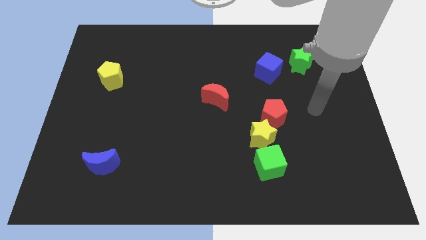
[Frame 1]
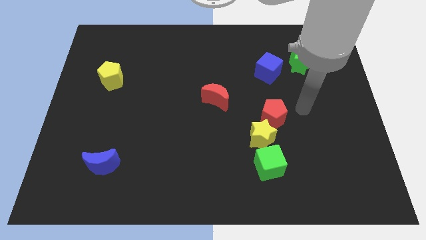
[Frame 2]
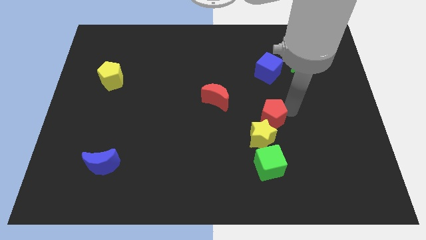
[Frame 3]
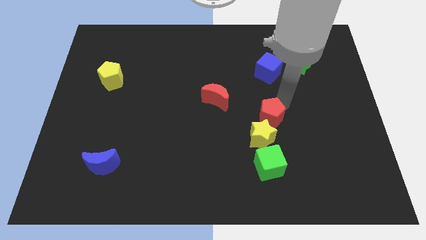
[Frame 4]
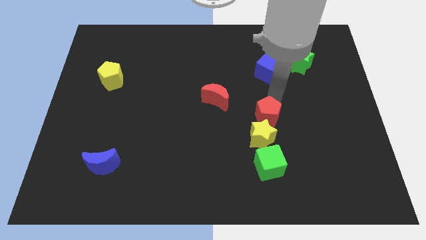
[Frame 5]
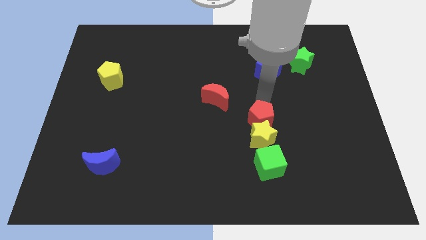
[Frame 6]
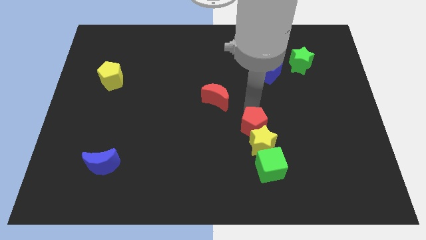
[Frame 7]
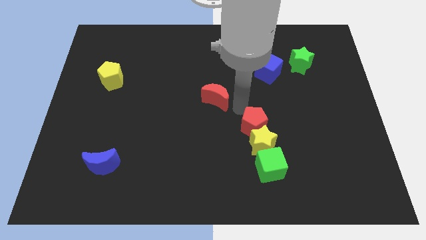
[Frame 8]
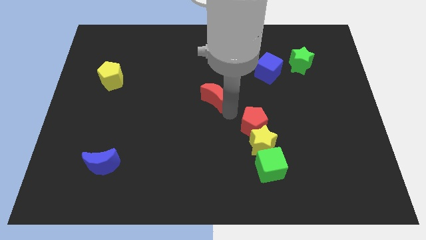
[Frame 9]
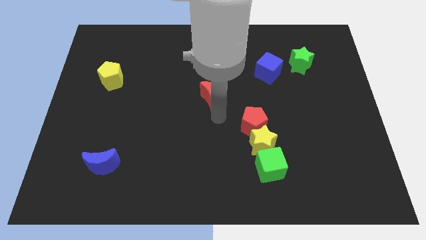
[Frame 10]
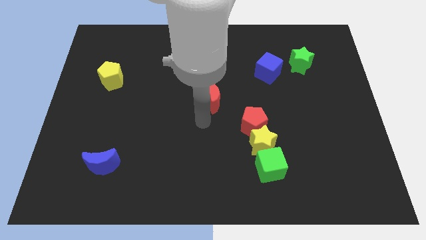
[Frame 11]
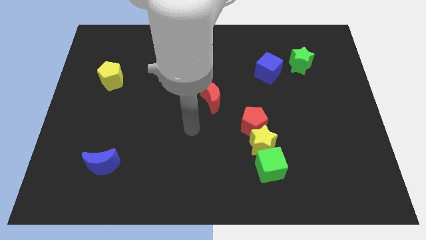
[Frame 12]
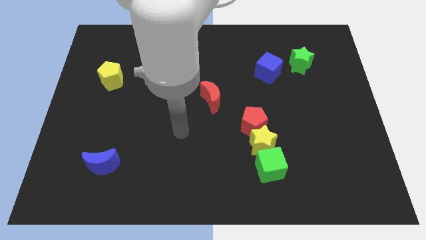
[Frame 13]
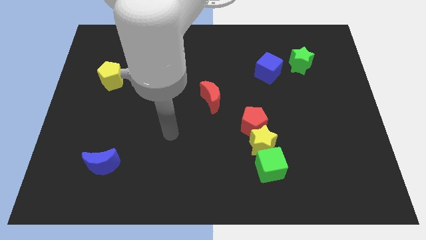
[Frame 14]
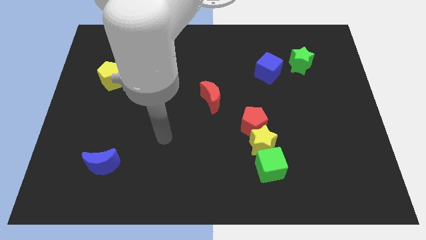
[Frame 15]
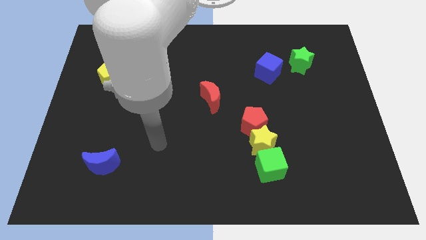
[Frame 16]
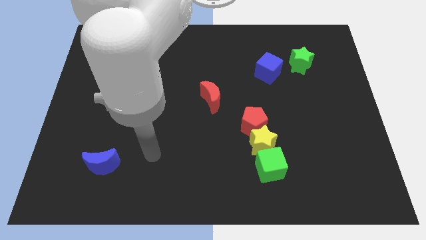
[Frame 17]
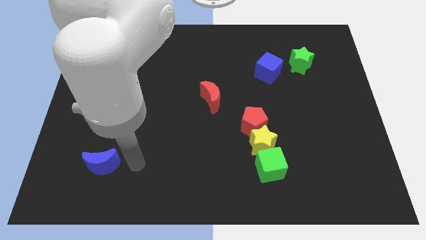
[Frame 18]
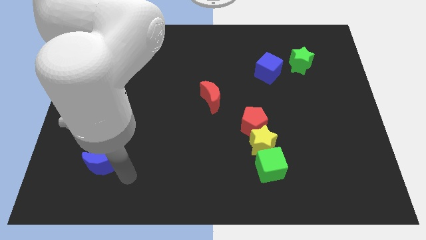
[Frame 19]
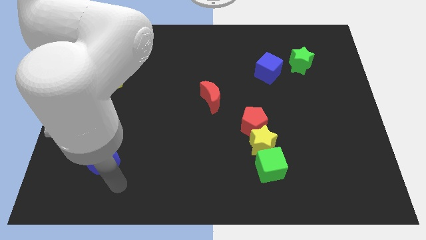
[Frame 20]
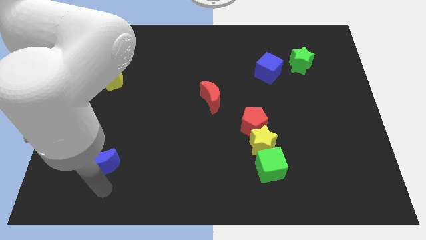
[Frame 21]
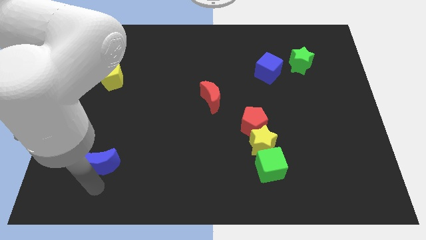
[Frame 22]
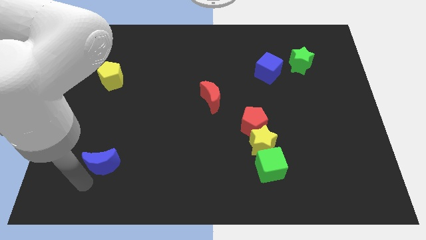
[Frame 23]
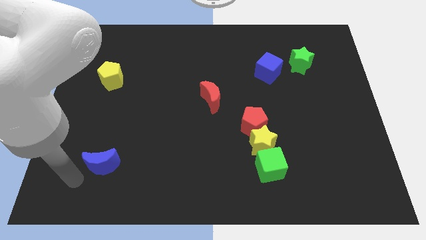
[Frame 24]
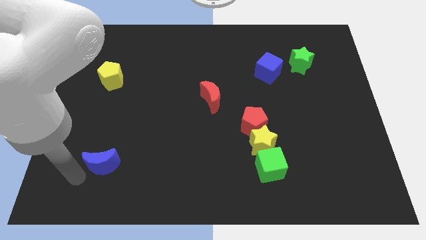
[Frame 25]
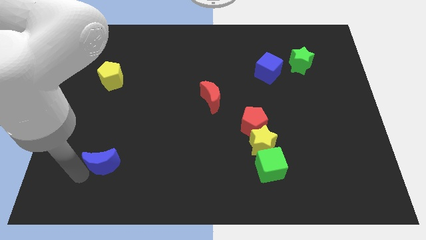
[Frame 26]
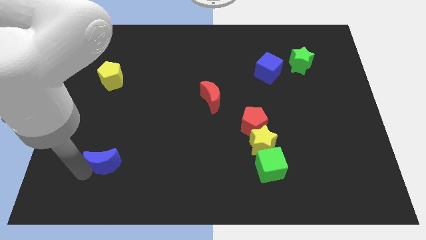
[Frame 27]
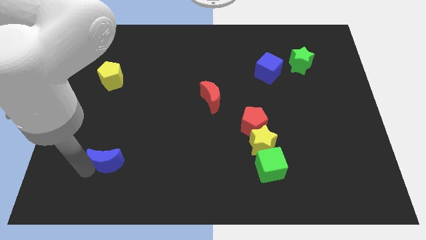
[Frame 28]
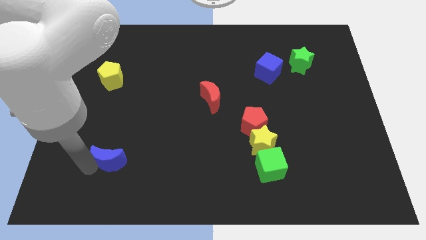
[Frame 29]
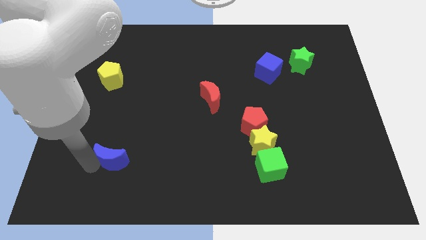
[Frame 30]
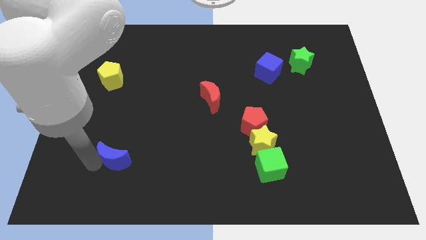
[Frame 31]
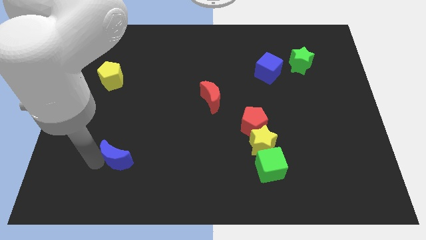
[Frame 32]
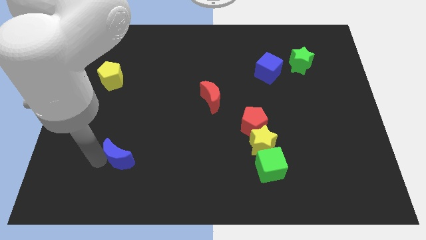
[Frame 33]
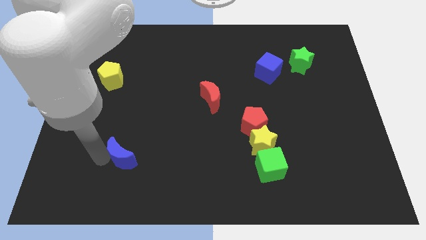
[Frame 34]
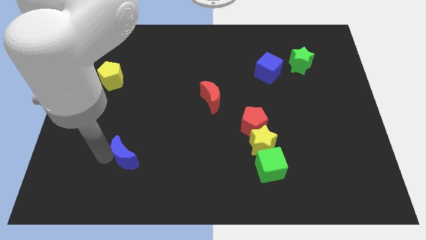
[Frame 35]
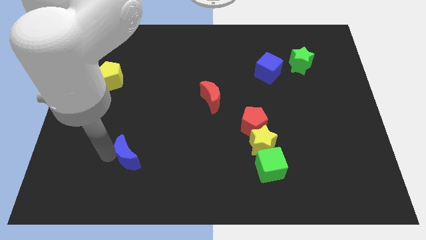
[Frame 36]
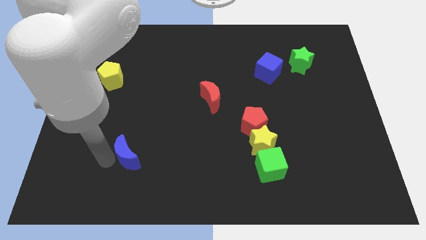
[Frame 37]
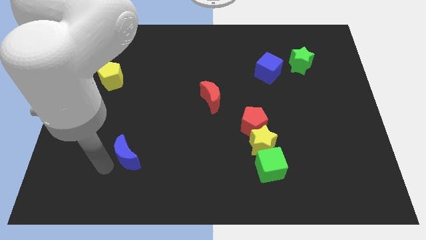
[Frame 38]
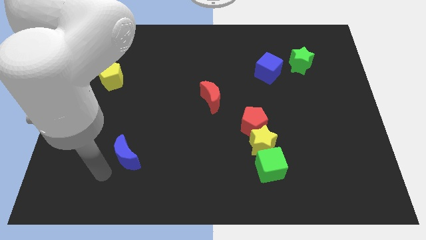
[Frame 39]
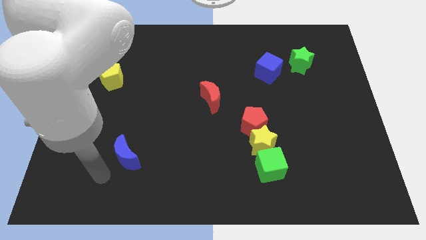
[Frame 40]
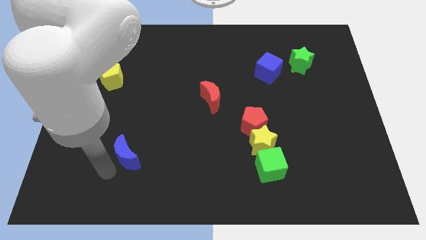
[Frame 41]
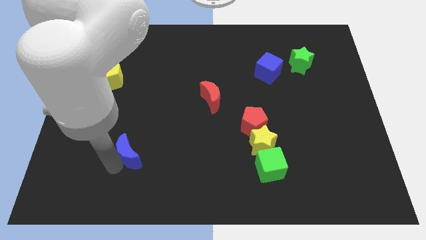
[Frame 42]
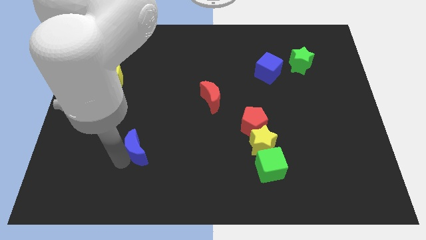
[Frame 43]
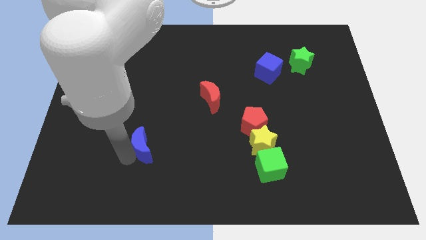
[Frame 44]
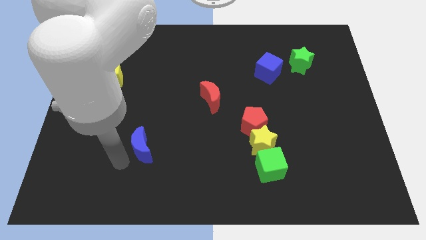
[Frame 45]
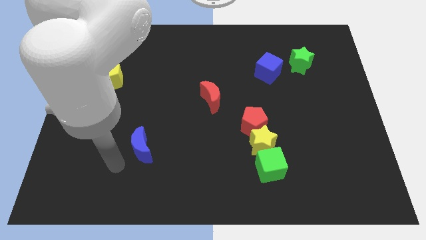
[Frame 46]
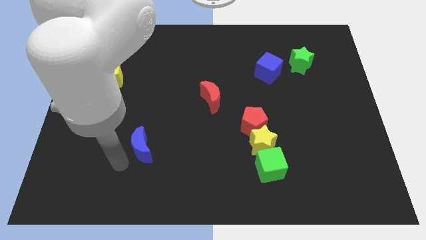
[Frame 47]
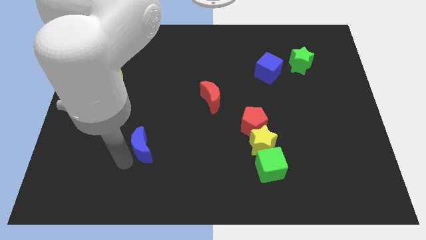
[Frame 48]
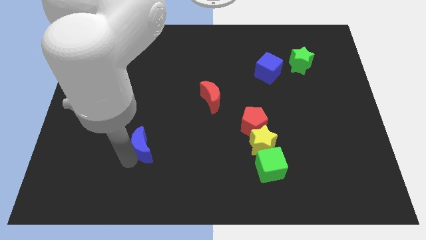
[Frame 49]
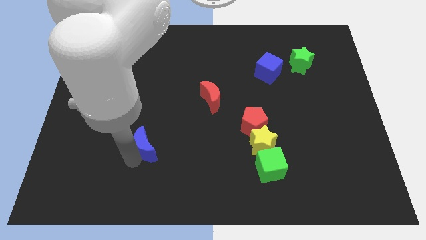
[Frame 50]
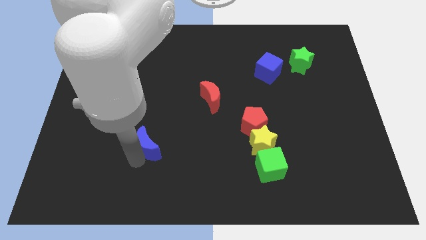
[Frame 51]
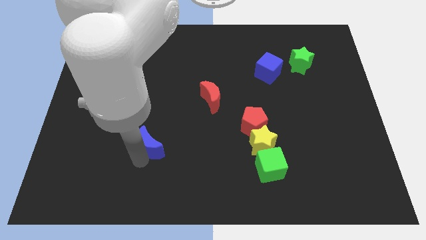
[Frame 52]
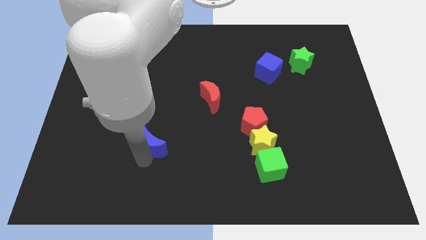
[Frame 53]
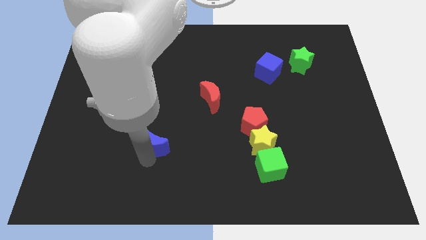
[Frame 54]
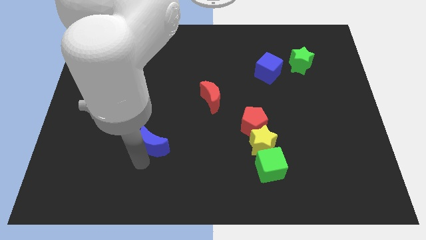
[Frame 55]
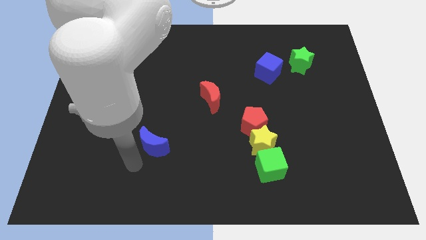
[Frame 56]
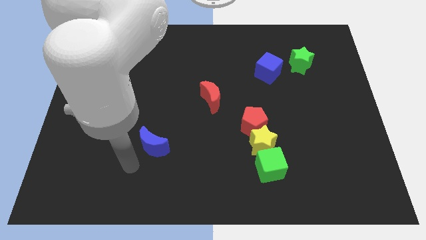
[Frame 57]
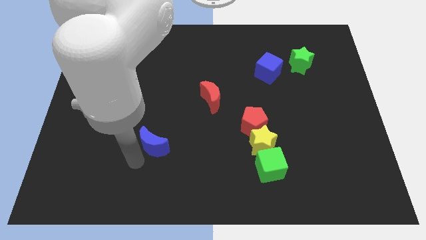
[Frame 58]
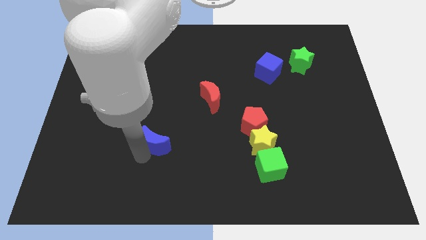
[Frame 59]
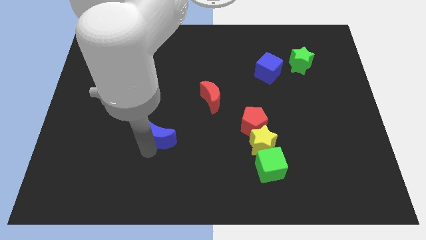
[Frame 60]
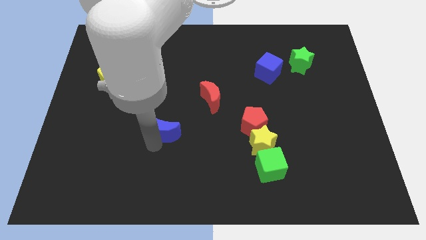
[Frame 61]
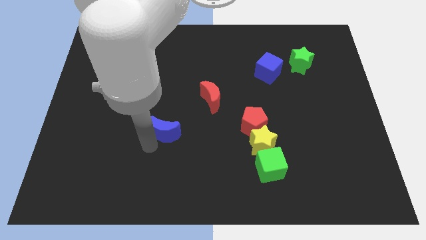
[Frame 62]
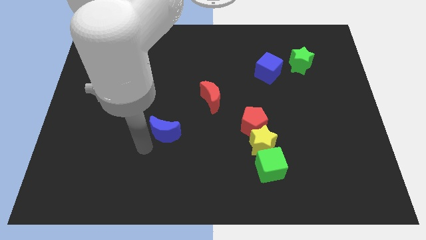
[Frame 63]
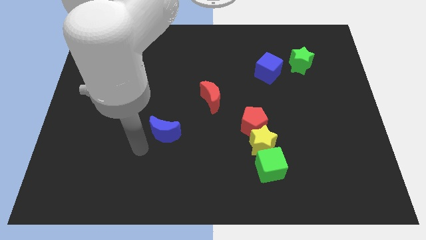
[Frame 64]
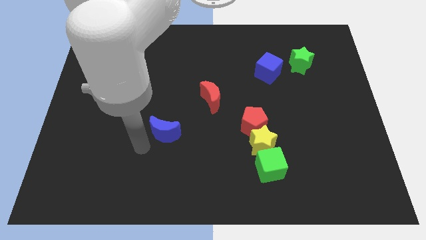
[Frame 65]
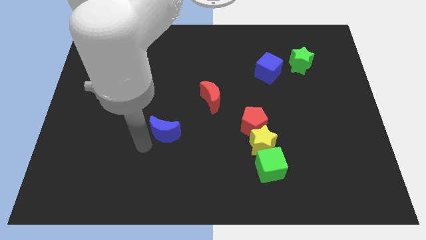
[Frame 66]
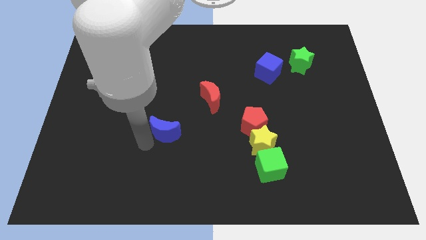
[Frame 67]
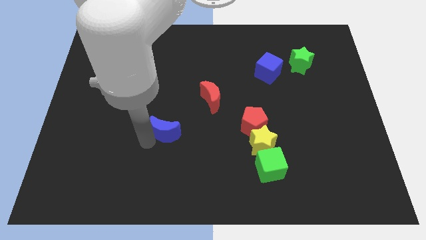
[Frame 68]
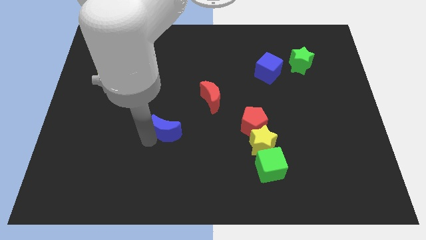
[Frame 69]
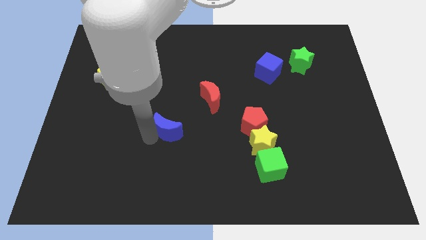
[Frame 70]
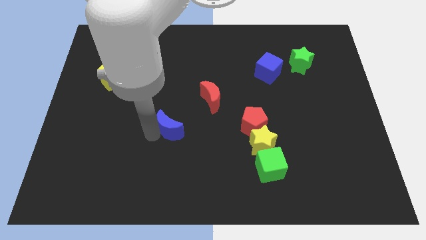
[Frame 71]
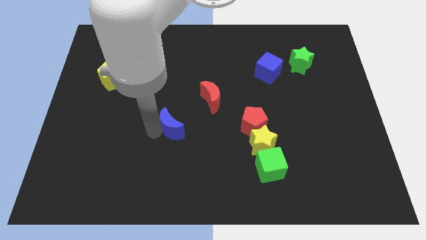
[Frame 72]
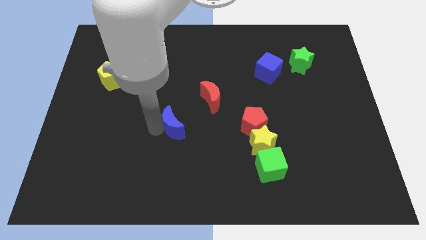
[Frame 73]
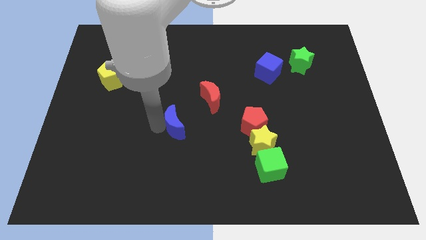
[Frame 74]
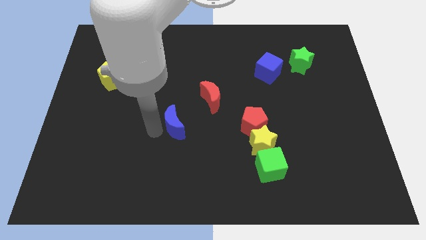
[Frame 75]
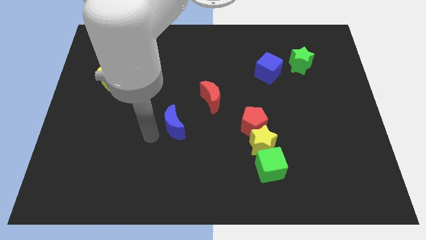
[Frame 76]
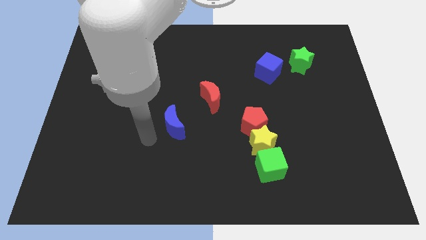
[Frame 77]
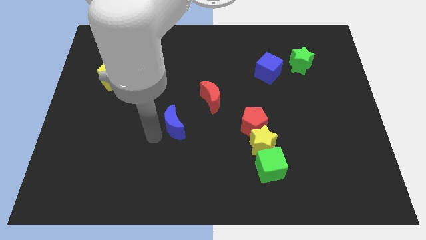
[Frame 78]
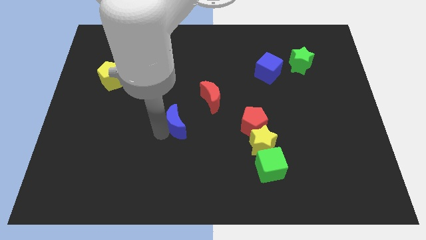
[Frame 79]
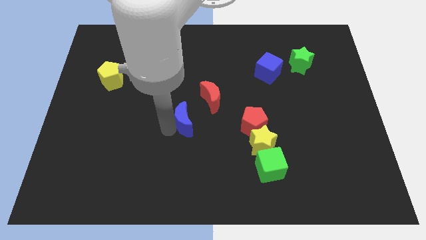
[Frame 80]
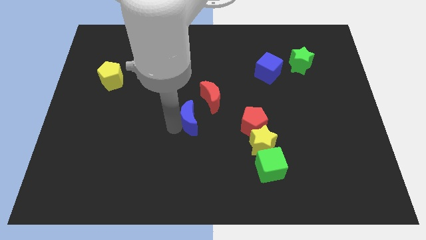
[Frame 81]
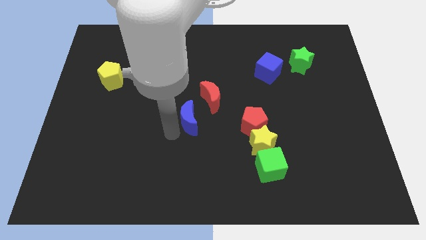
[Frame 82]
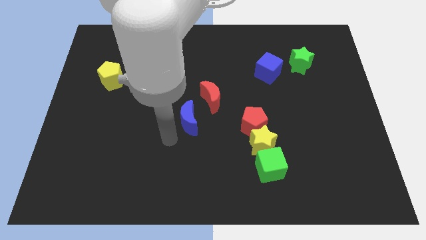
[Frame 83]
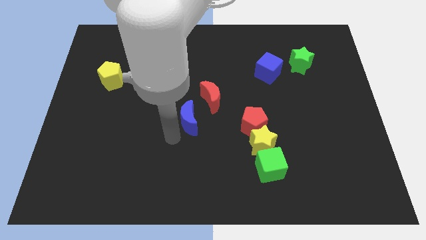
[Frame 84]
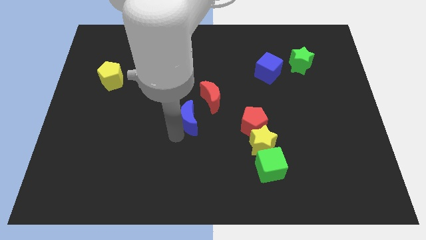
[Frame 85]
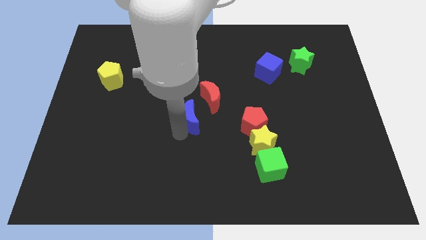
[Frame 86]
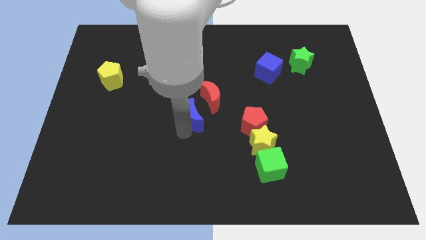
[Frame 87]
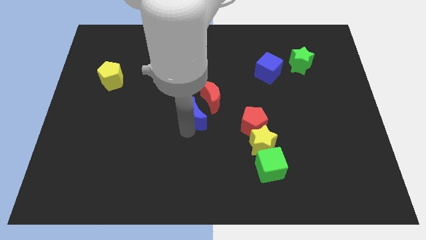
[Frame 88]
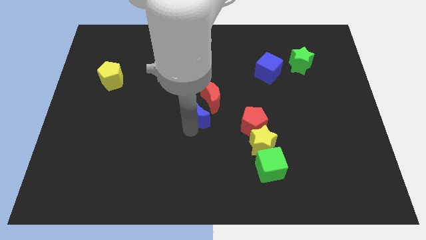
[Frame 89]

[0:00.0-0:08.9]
slide the blue moon close to the red moon
